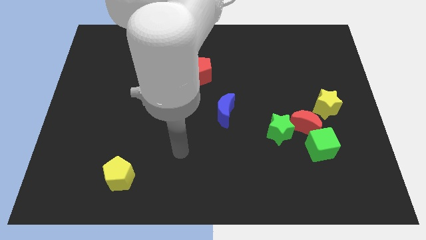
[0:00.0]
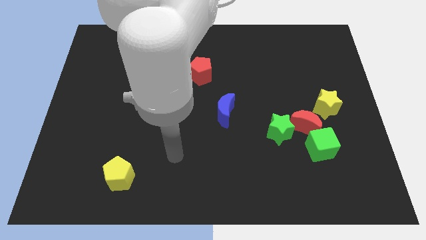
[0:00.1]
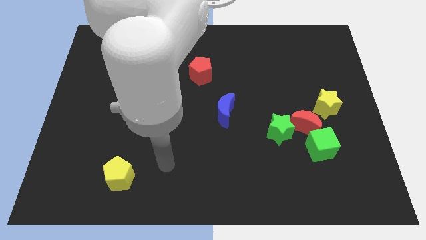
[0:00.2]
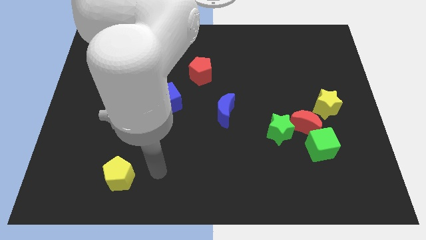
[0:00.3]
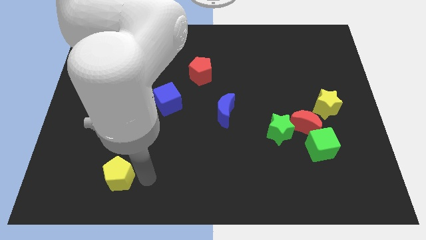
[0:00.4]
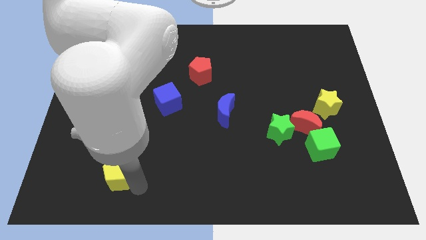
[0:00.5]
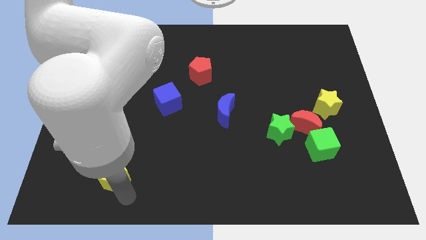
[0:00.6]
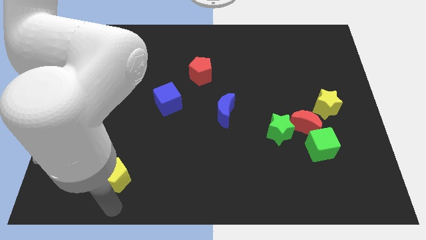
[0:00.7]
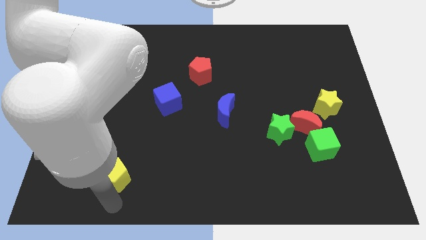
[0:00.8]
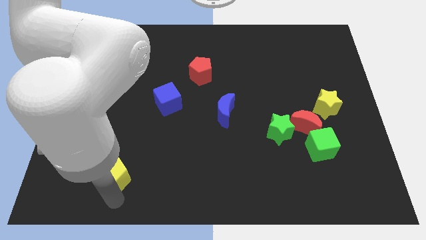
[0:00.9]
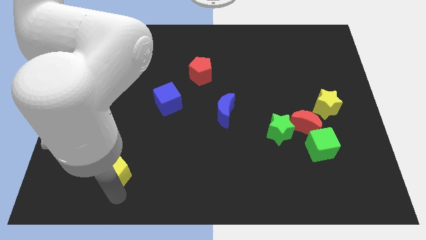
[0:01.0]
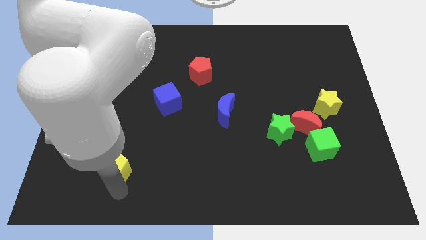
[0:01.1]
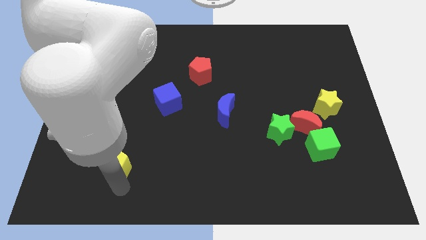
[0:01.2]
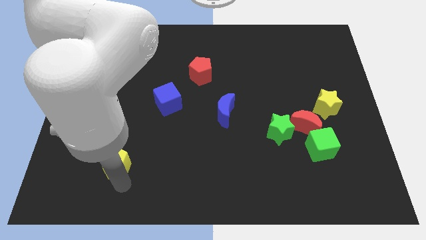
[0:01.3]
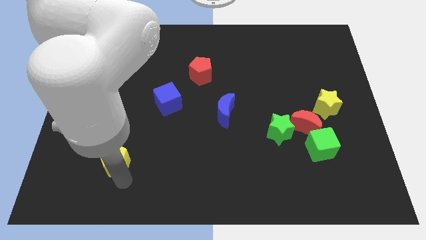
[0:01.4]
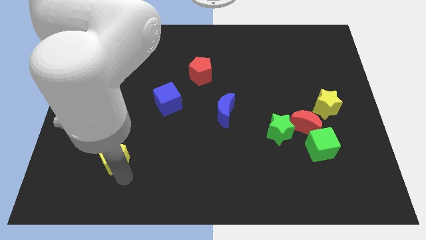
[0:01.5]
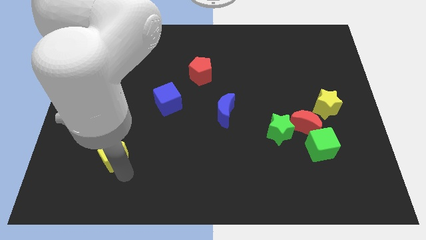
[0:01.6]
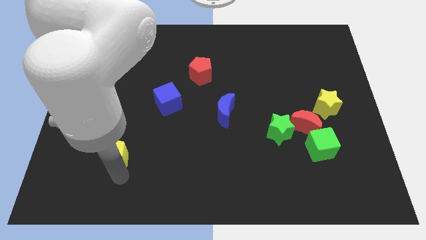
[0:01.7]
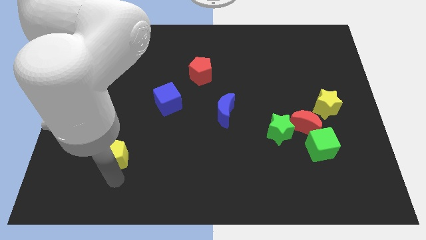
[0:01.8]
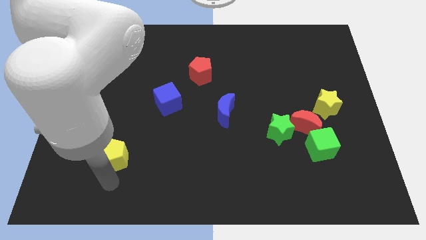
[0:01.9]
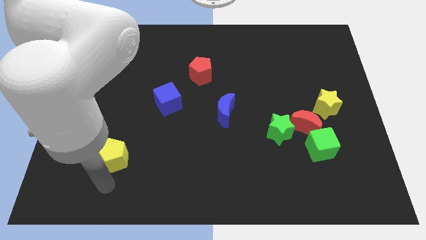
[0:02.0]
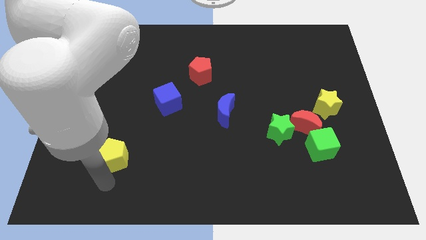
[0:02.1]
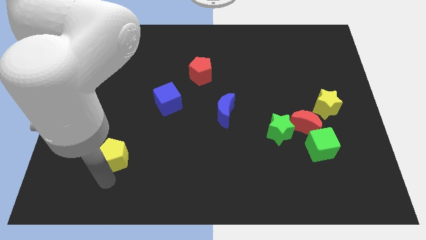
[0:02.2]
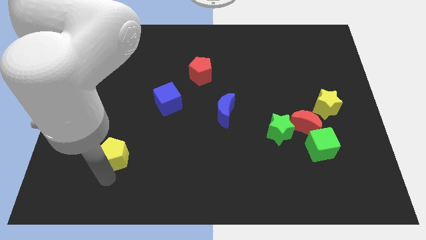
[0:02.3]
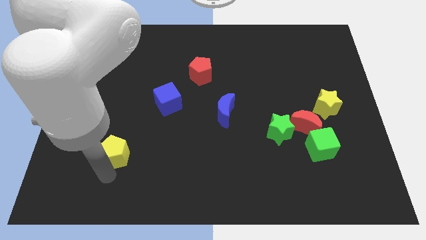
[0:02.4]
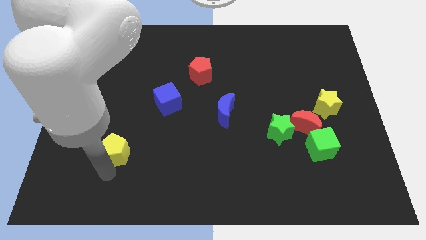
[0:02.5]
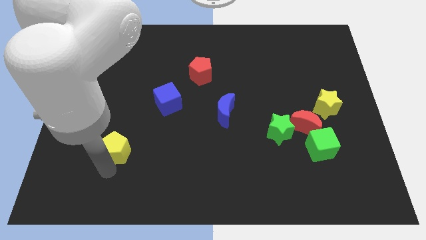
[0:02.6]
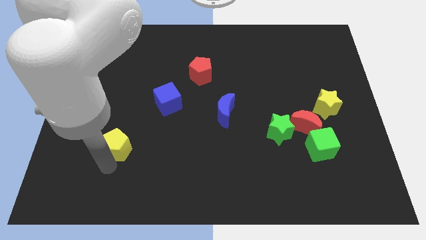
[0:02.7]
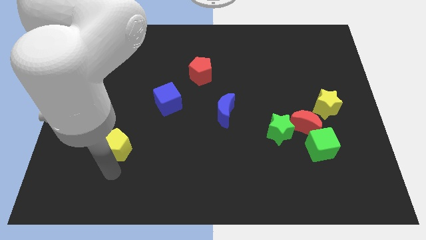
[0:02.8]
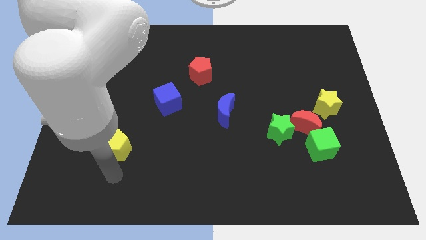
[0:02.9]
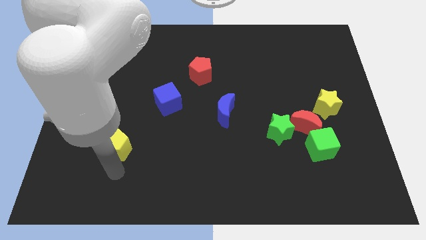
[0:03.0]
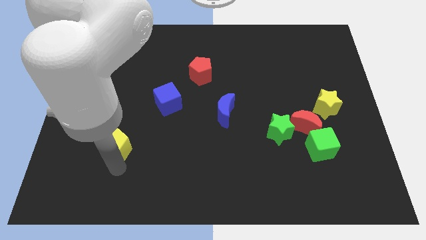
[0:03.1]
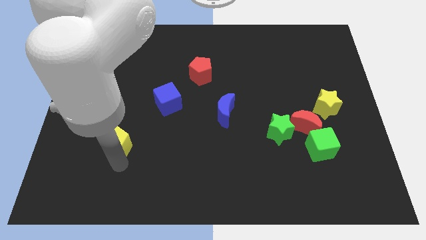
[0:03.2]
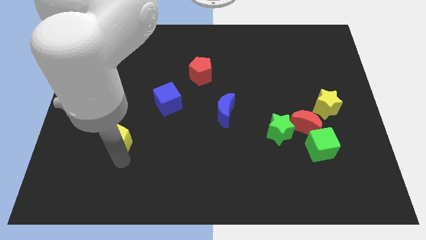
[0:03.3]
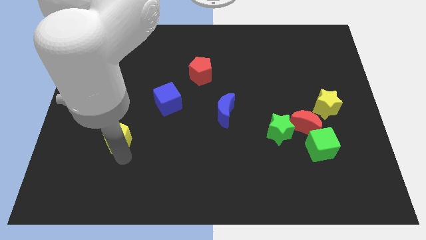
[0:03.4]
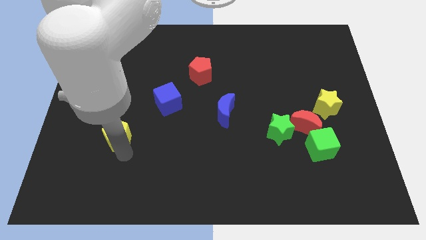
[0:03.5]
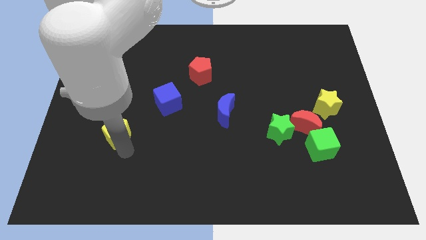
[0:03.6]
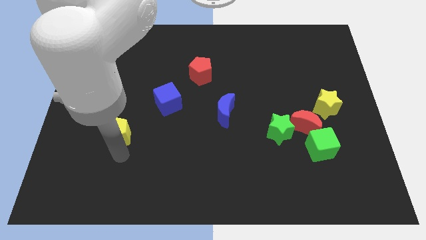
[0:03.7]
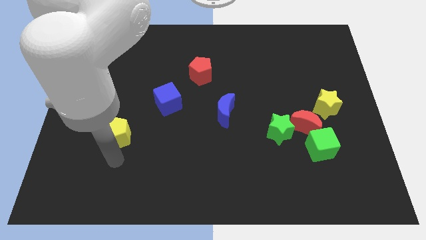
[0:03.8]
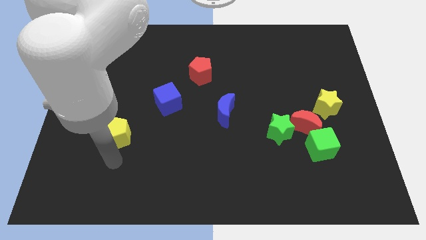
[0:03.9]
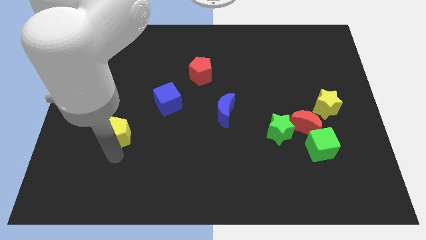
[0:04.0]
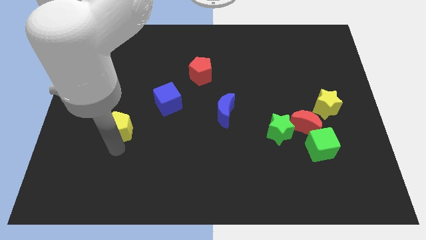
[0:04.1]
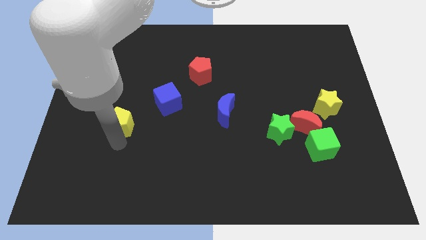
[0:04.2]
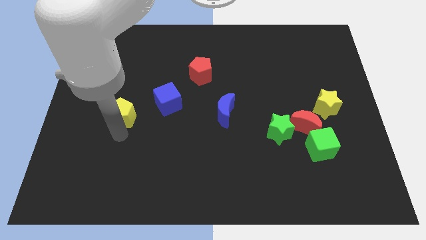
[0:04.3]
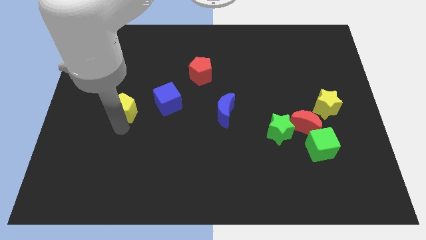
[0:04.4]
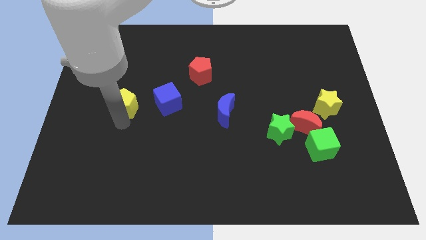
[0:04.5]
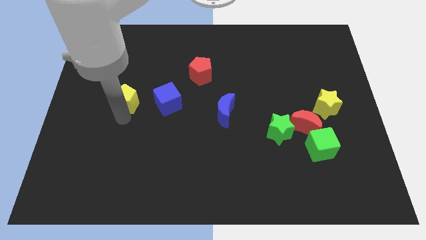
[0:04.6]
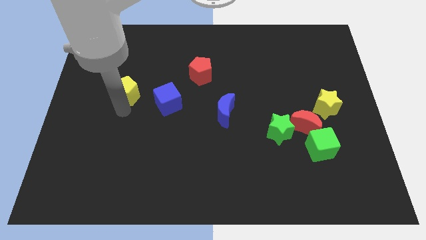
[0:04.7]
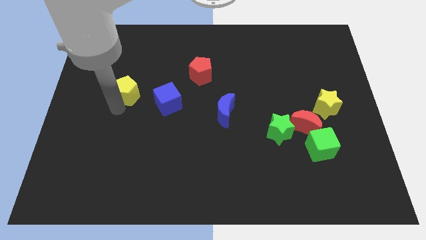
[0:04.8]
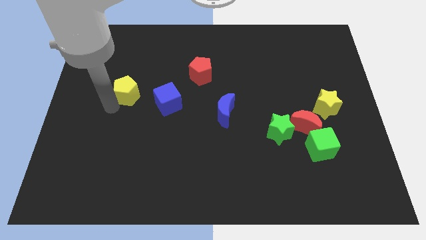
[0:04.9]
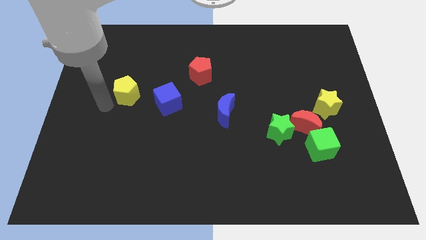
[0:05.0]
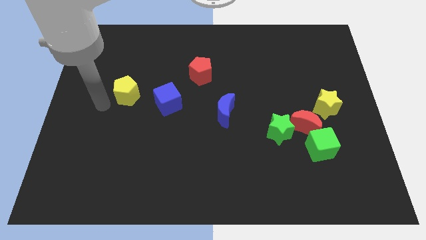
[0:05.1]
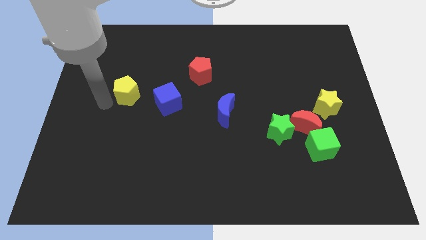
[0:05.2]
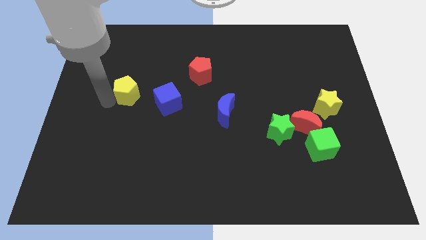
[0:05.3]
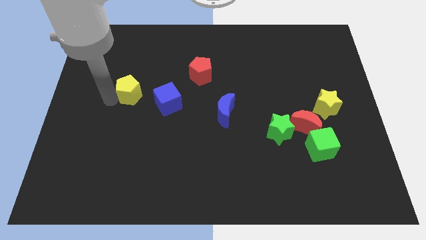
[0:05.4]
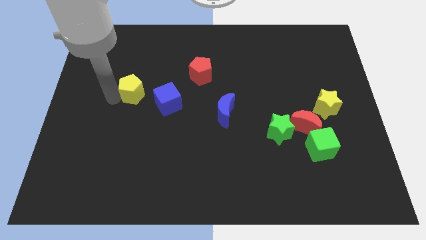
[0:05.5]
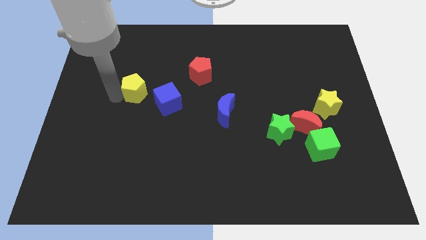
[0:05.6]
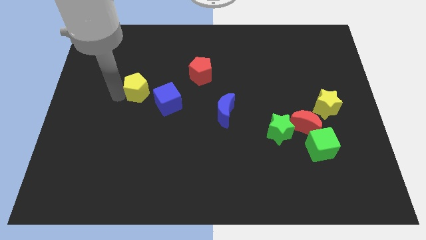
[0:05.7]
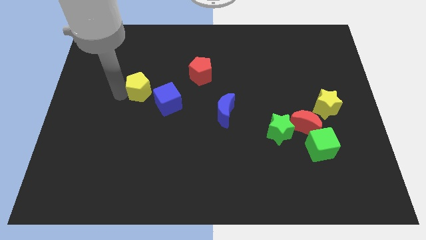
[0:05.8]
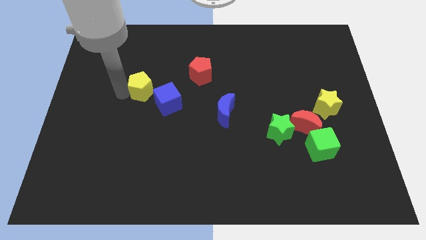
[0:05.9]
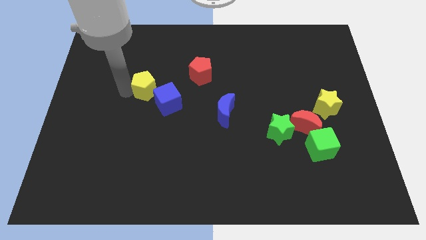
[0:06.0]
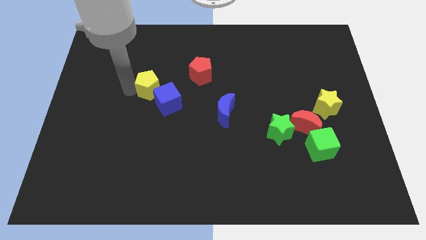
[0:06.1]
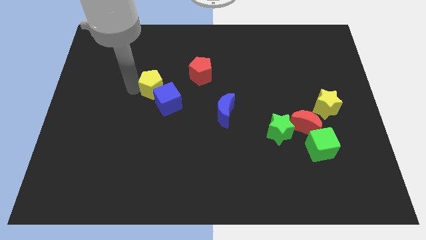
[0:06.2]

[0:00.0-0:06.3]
slide the yellow pentagon above the blue cube

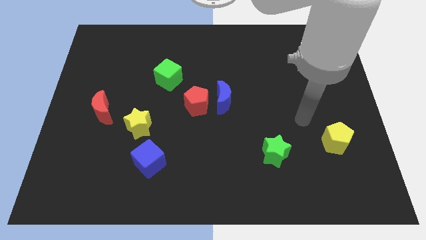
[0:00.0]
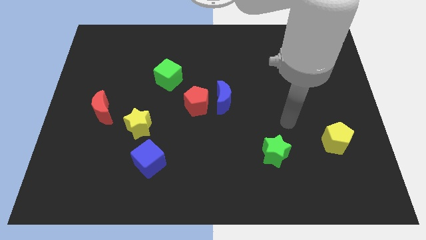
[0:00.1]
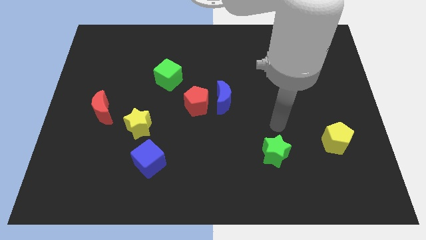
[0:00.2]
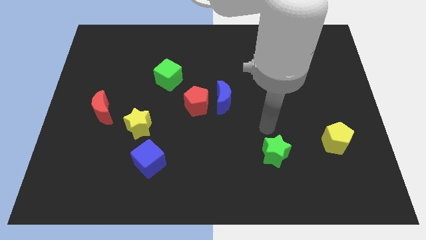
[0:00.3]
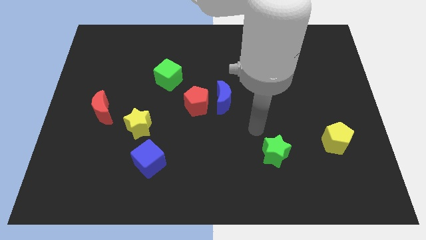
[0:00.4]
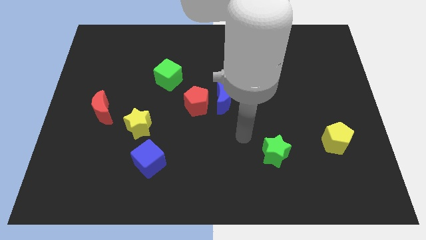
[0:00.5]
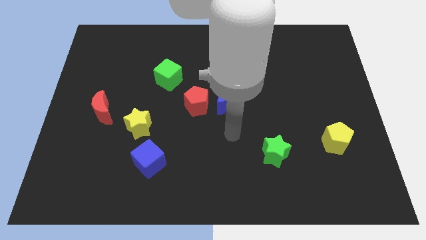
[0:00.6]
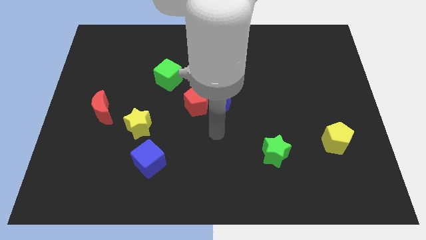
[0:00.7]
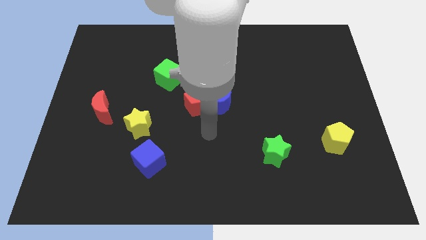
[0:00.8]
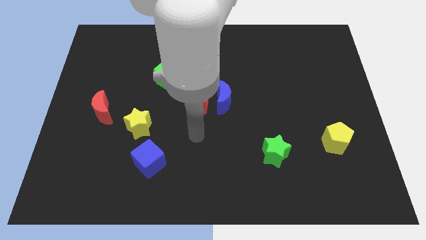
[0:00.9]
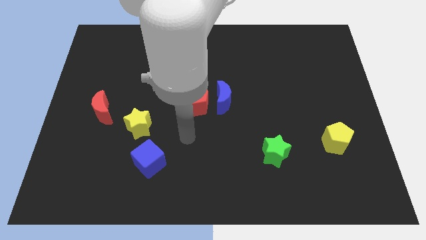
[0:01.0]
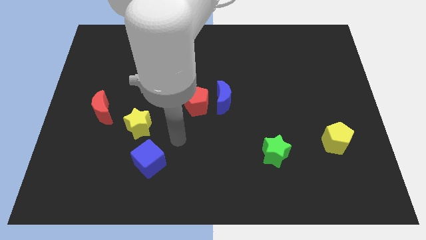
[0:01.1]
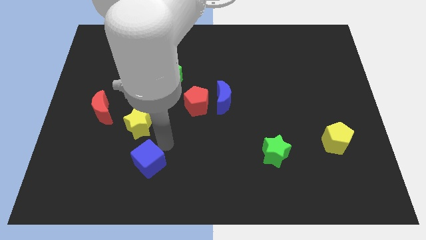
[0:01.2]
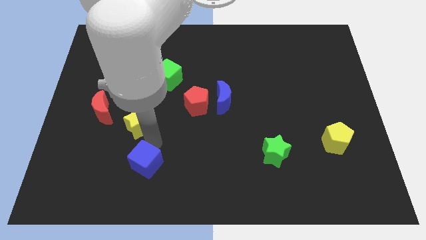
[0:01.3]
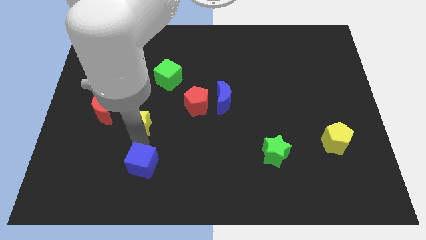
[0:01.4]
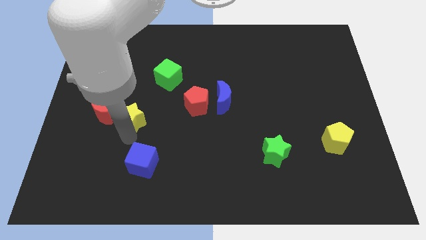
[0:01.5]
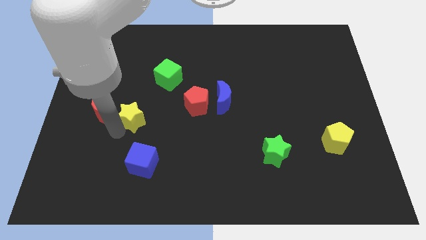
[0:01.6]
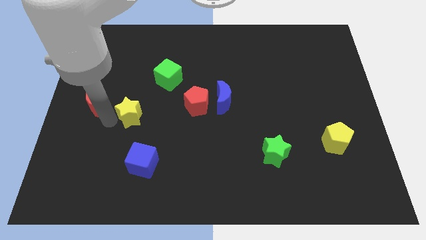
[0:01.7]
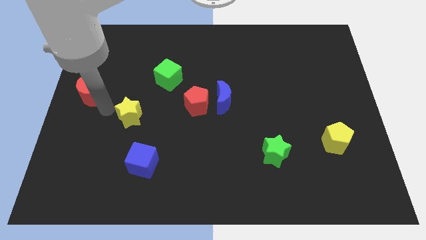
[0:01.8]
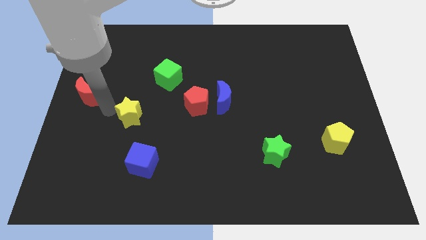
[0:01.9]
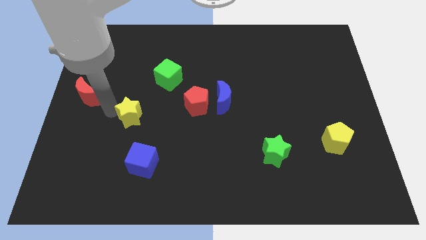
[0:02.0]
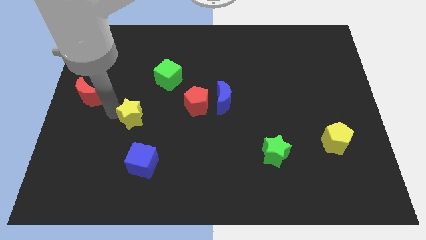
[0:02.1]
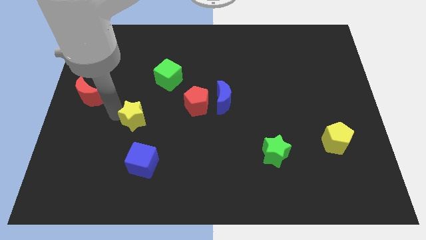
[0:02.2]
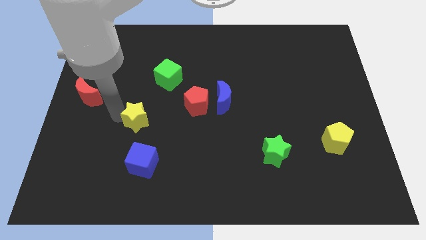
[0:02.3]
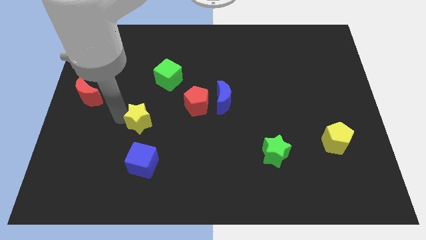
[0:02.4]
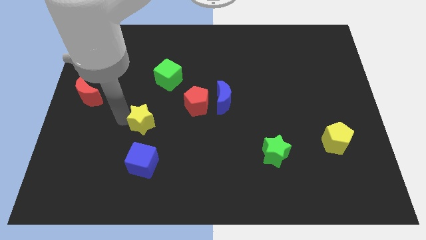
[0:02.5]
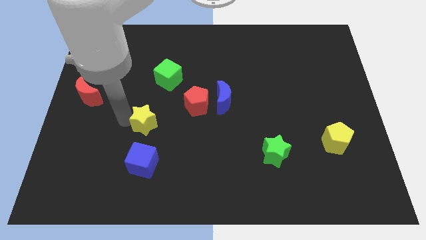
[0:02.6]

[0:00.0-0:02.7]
push the yellow star to the bottom side of the green cube
